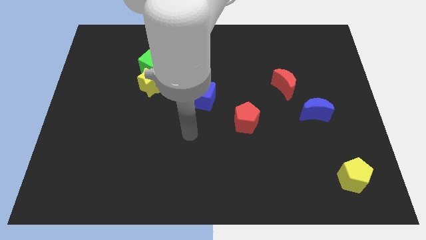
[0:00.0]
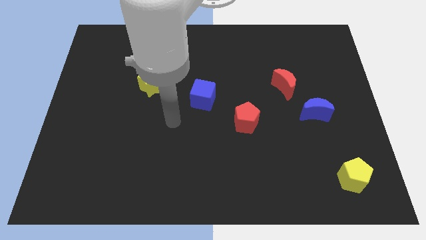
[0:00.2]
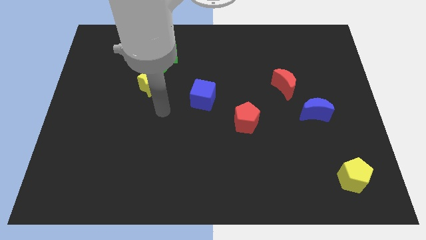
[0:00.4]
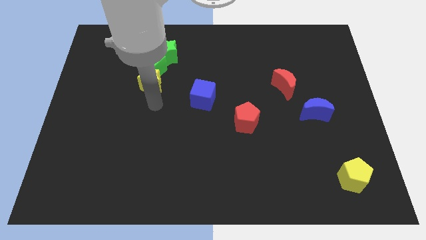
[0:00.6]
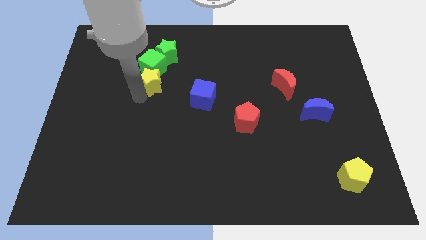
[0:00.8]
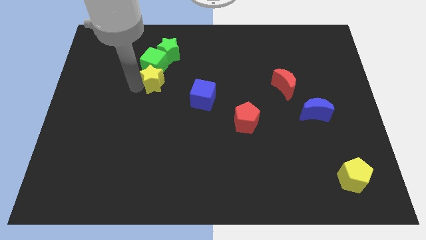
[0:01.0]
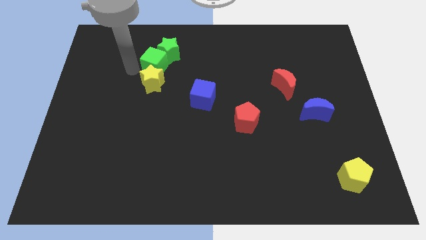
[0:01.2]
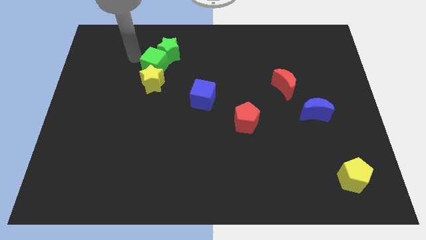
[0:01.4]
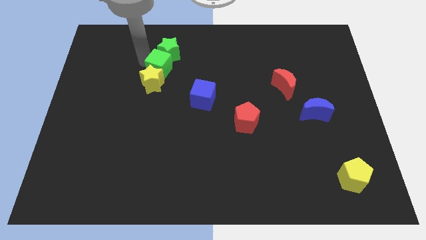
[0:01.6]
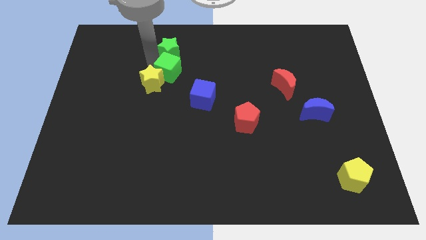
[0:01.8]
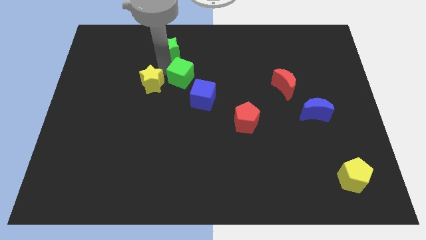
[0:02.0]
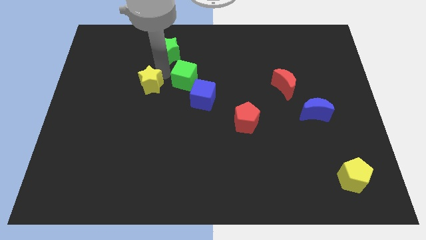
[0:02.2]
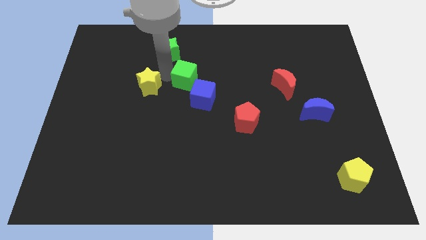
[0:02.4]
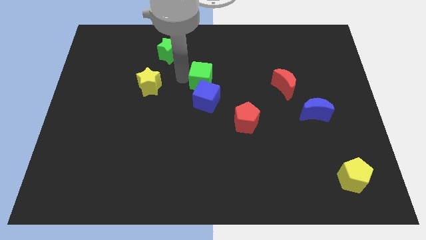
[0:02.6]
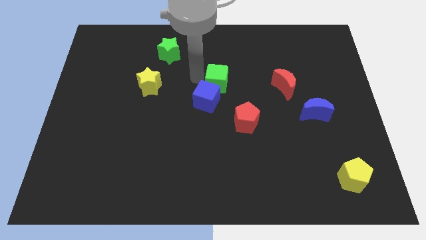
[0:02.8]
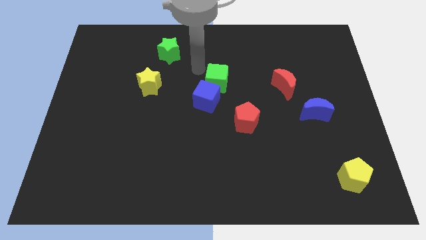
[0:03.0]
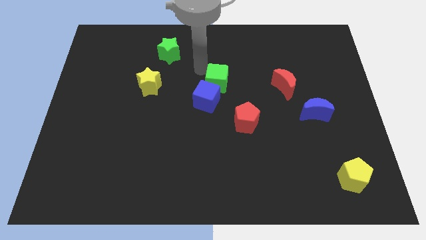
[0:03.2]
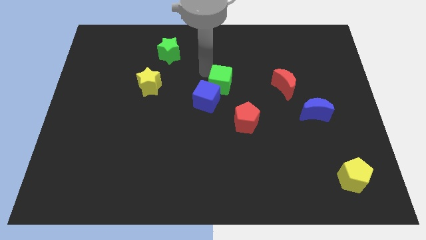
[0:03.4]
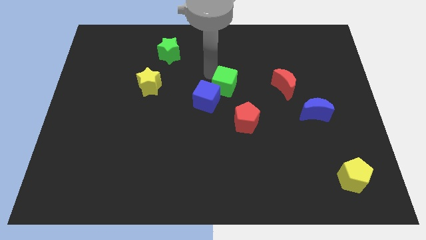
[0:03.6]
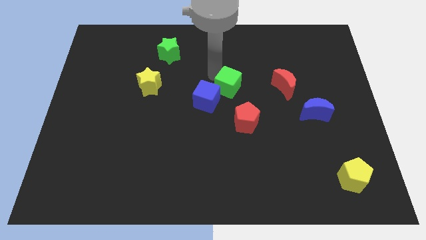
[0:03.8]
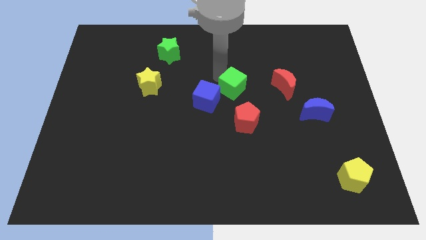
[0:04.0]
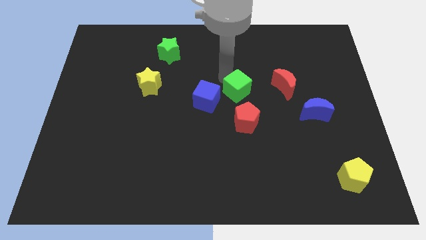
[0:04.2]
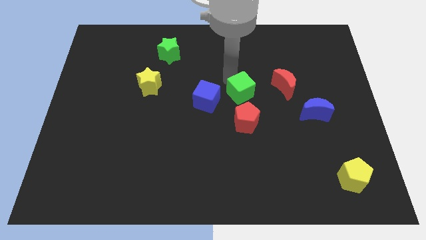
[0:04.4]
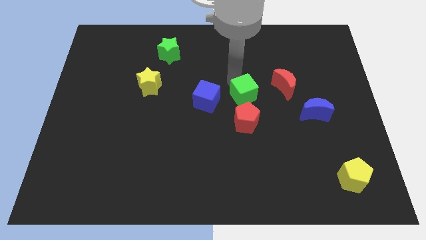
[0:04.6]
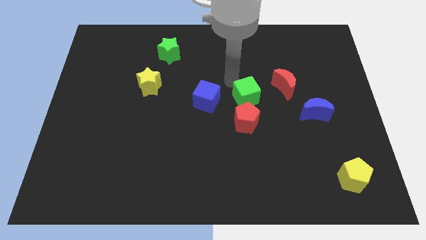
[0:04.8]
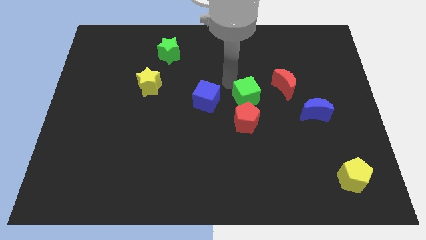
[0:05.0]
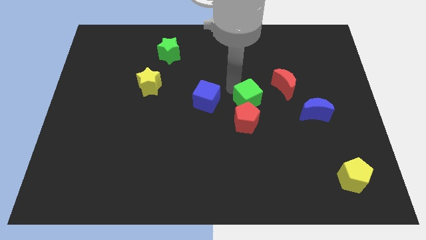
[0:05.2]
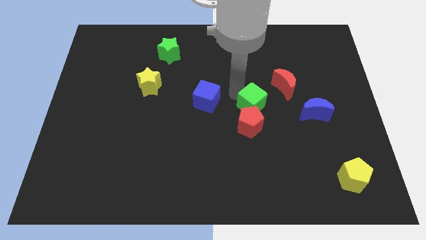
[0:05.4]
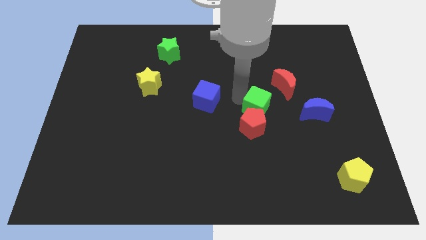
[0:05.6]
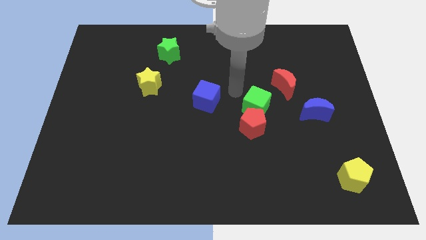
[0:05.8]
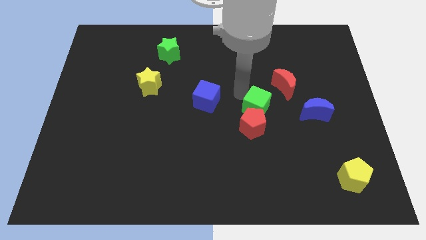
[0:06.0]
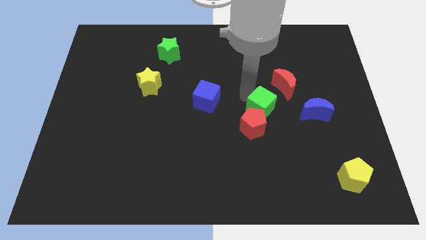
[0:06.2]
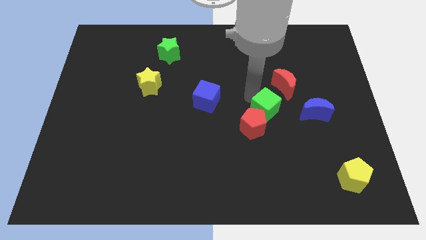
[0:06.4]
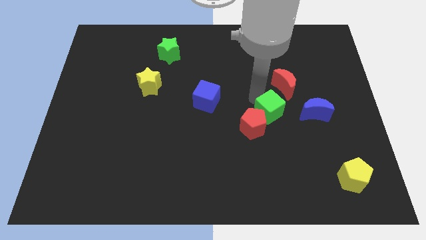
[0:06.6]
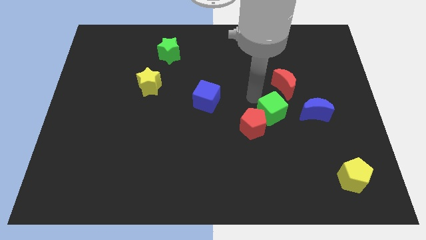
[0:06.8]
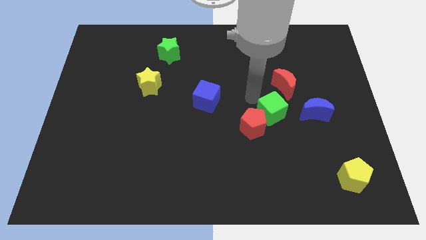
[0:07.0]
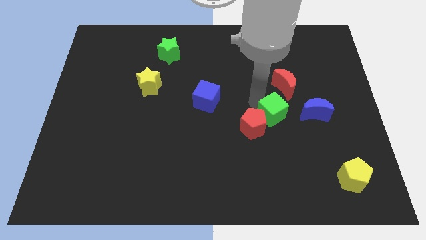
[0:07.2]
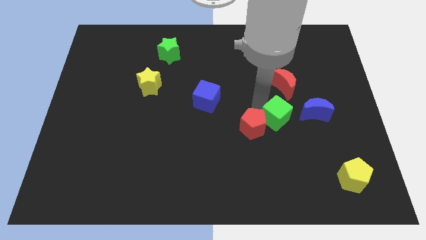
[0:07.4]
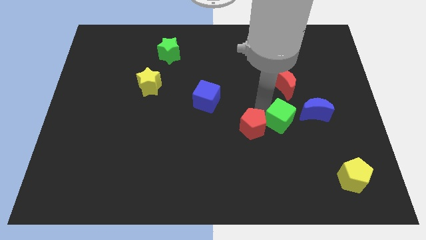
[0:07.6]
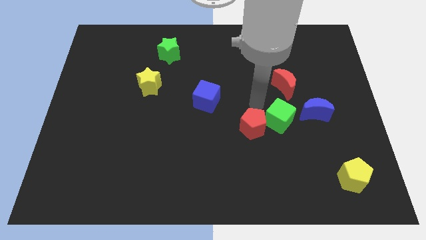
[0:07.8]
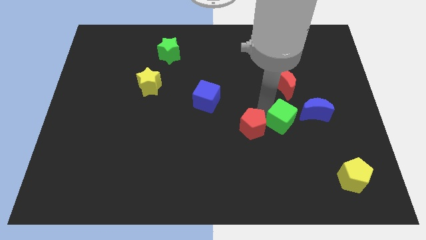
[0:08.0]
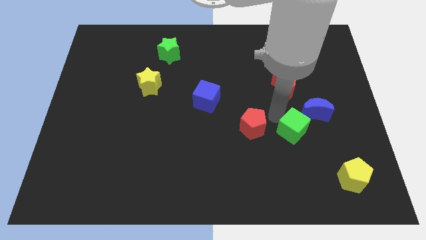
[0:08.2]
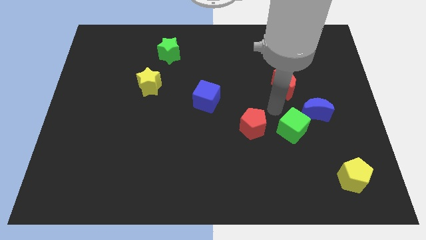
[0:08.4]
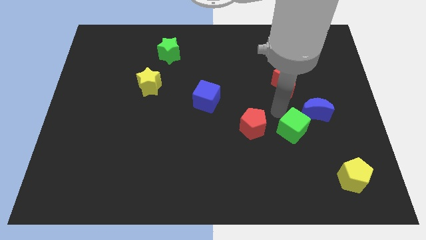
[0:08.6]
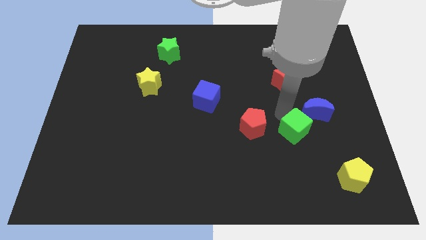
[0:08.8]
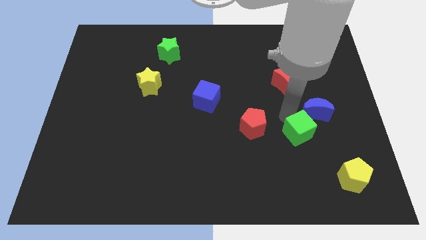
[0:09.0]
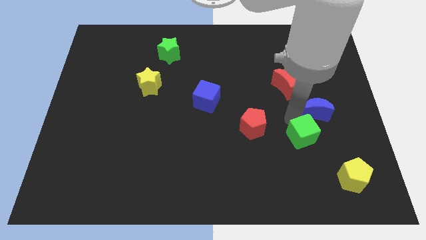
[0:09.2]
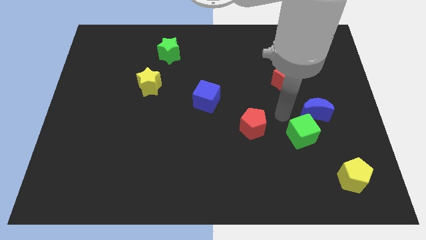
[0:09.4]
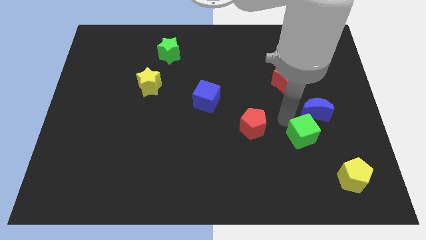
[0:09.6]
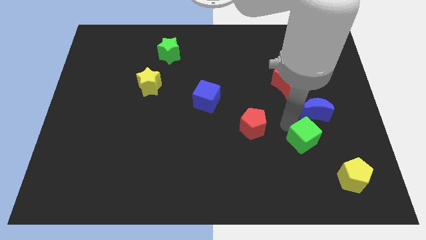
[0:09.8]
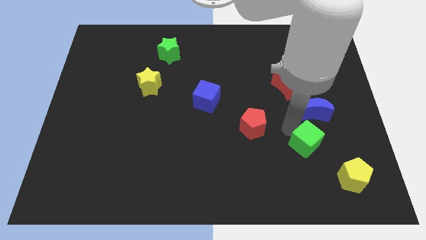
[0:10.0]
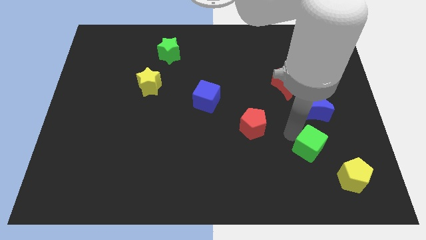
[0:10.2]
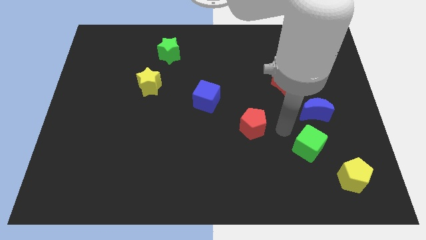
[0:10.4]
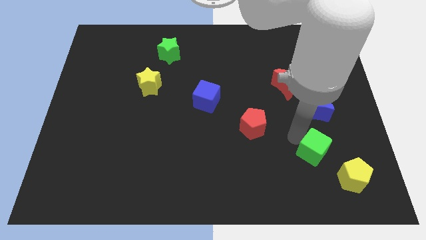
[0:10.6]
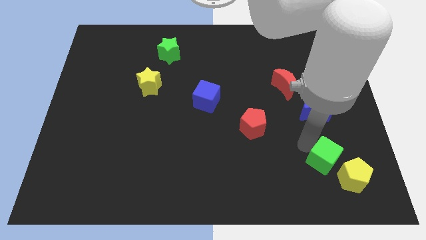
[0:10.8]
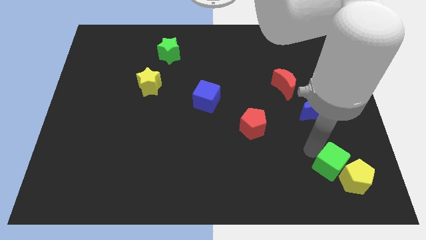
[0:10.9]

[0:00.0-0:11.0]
put the green cube to the yellow pentagon

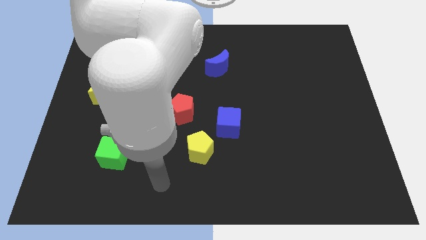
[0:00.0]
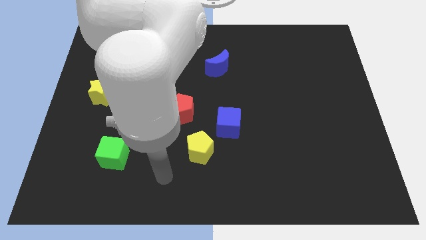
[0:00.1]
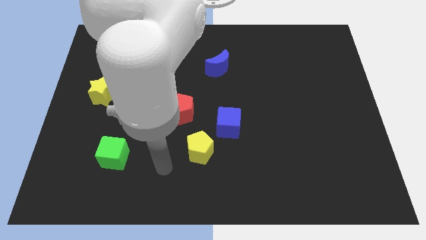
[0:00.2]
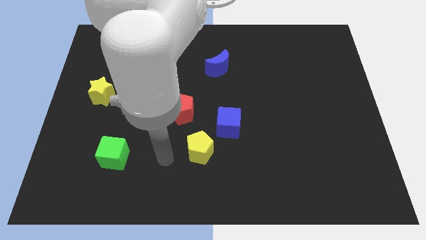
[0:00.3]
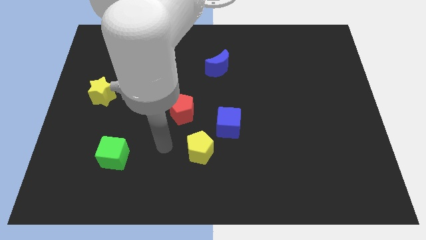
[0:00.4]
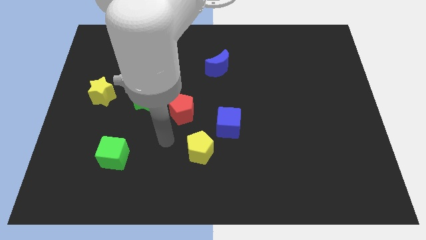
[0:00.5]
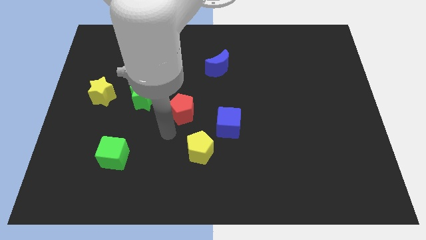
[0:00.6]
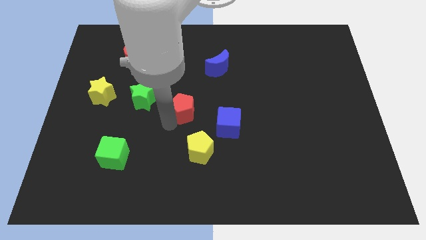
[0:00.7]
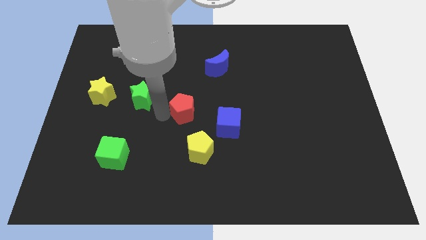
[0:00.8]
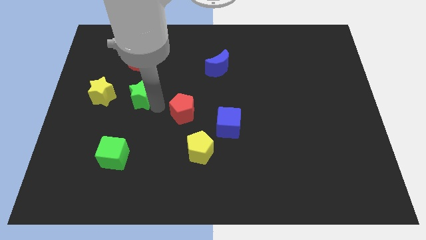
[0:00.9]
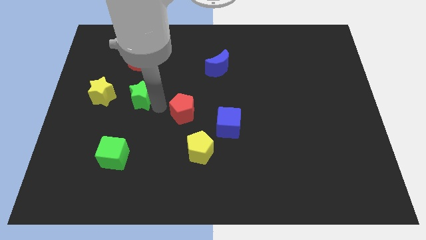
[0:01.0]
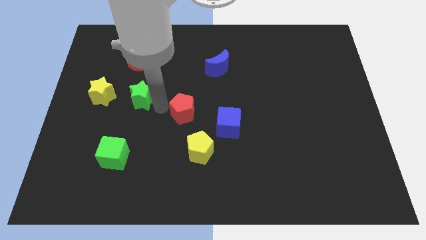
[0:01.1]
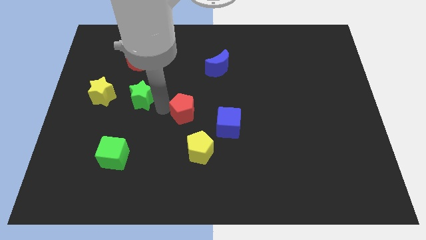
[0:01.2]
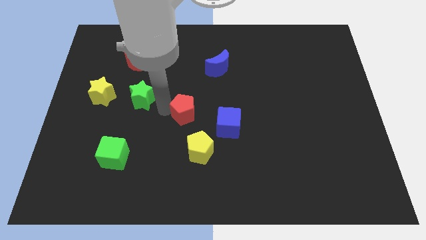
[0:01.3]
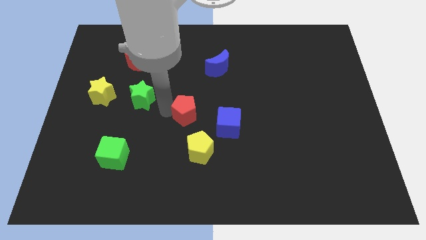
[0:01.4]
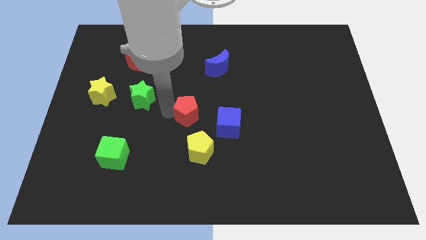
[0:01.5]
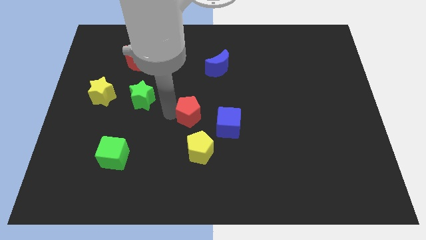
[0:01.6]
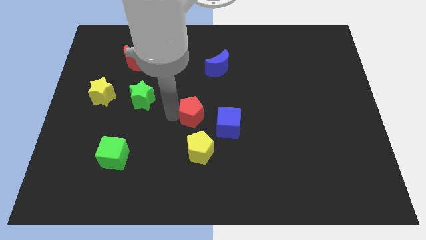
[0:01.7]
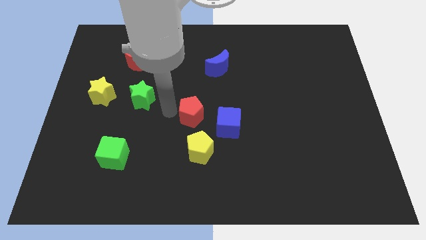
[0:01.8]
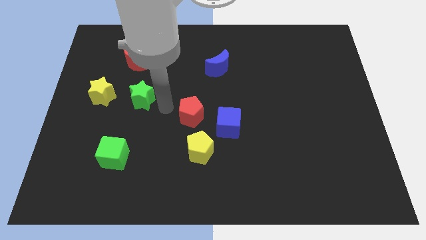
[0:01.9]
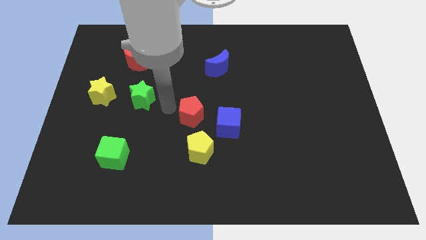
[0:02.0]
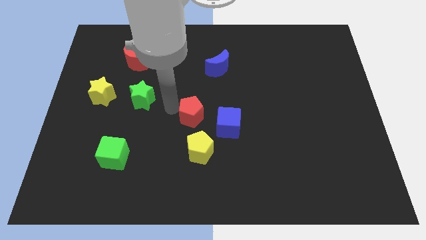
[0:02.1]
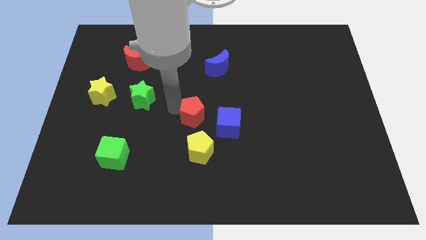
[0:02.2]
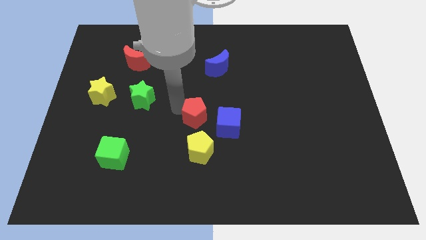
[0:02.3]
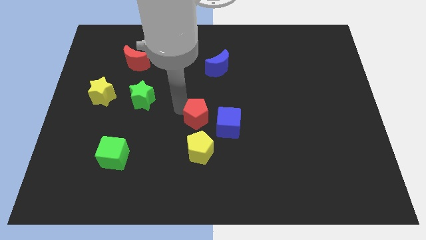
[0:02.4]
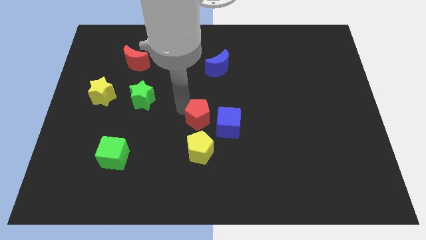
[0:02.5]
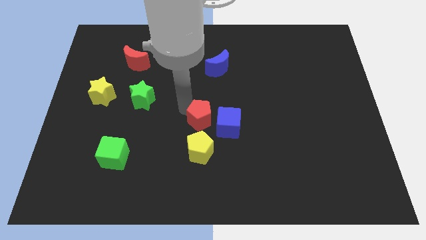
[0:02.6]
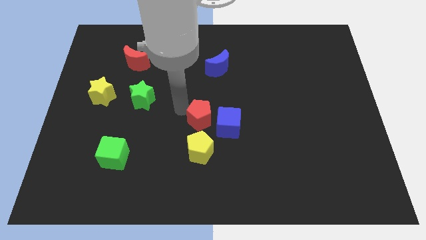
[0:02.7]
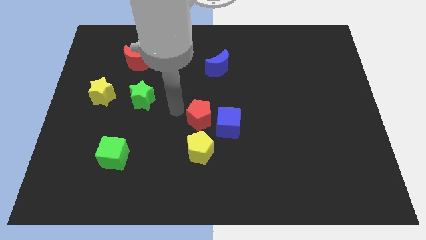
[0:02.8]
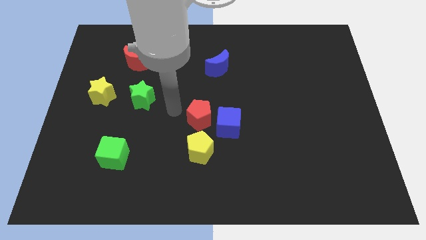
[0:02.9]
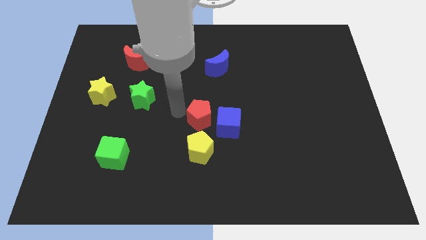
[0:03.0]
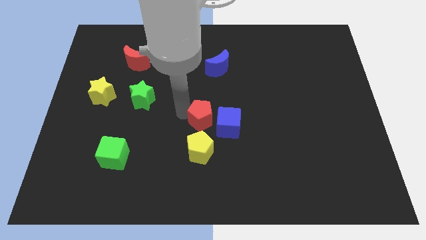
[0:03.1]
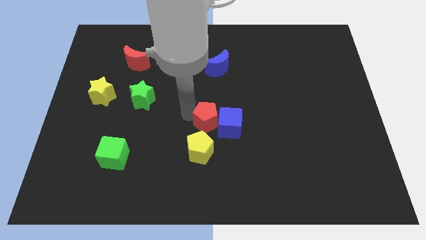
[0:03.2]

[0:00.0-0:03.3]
push the red pentagon next to the blue cube
